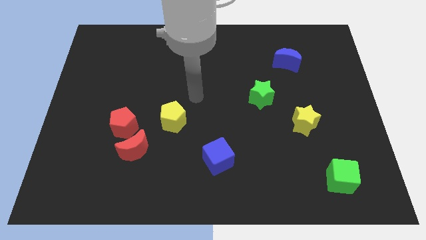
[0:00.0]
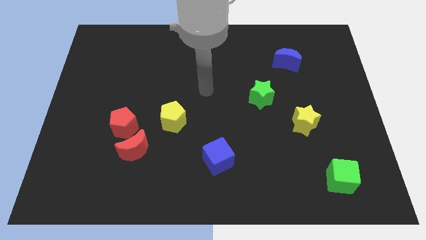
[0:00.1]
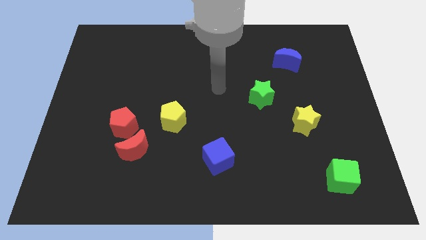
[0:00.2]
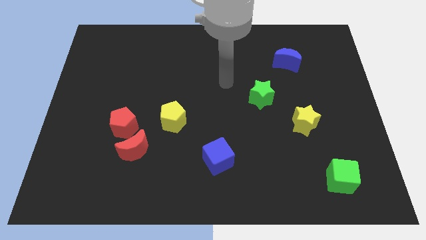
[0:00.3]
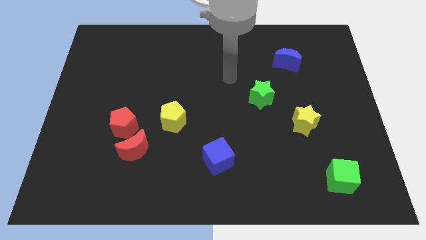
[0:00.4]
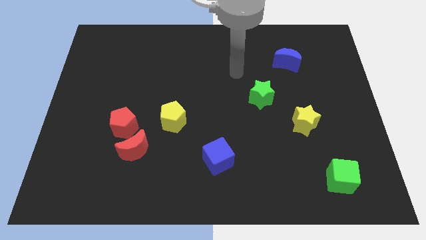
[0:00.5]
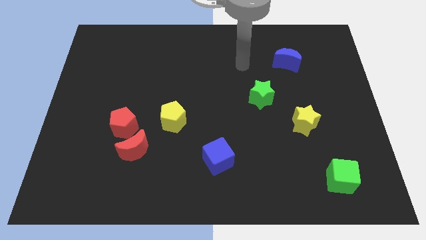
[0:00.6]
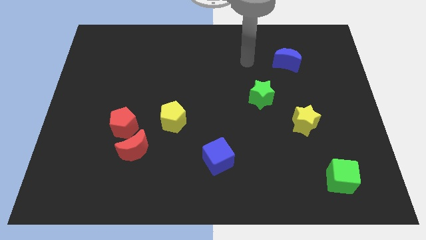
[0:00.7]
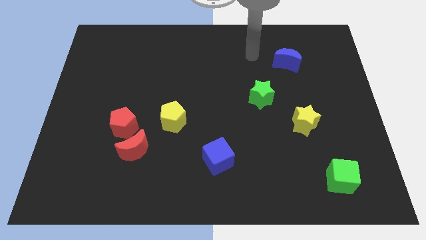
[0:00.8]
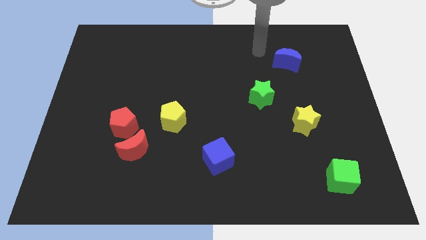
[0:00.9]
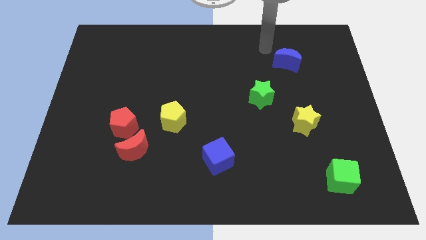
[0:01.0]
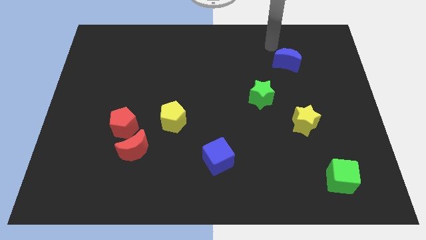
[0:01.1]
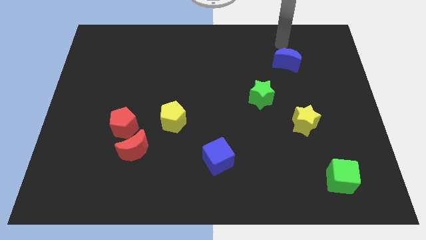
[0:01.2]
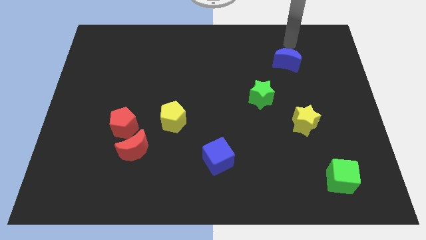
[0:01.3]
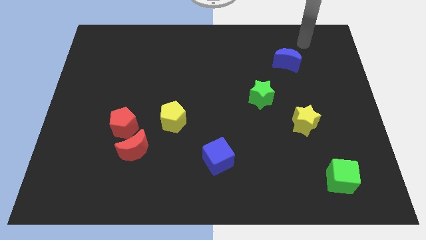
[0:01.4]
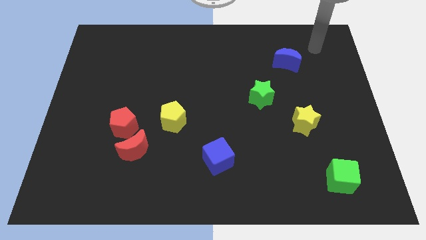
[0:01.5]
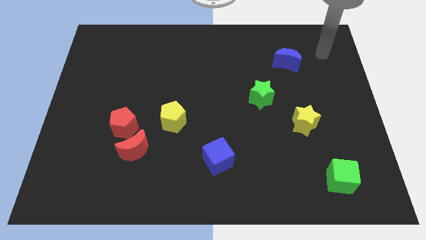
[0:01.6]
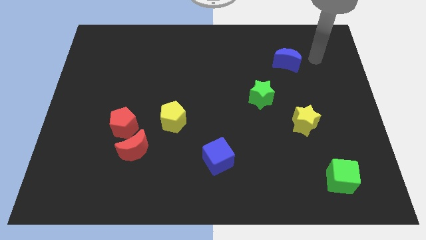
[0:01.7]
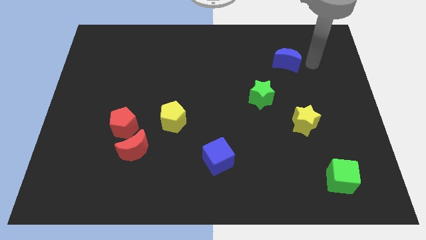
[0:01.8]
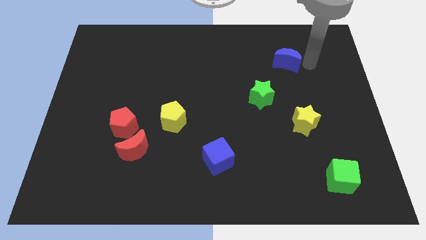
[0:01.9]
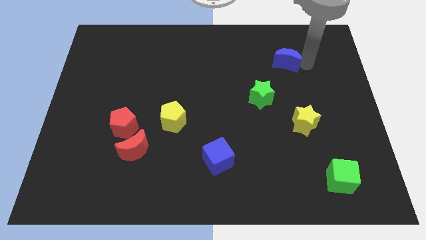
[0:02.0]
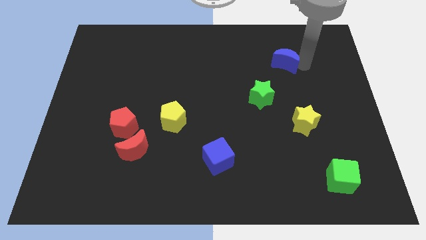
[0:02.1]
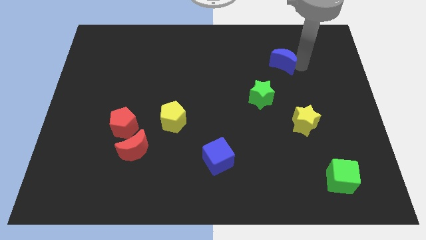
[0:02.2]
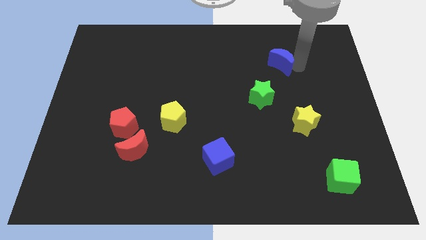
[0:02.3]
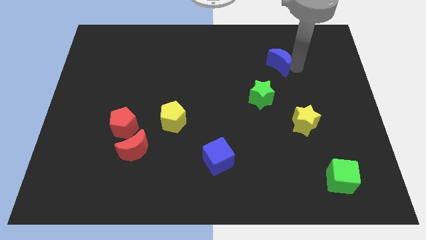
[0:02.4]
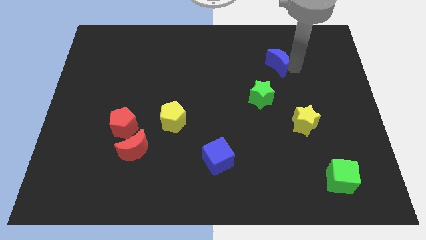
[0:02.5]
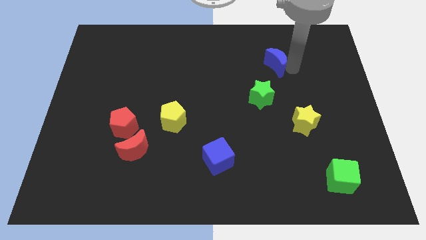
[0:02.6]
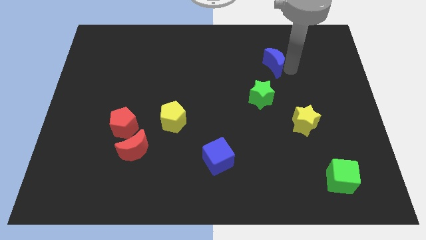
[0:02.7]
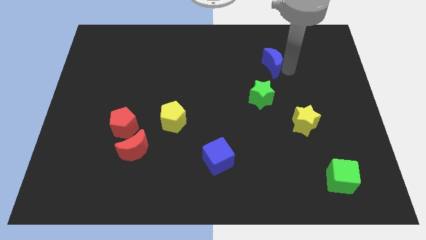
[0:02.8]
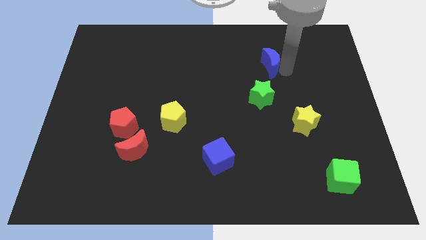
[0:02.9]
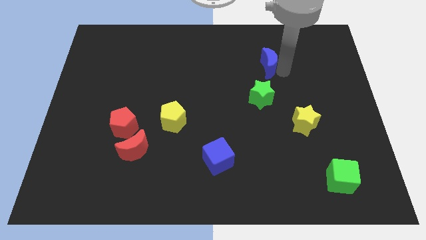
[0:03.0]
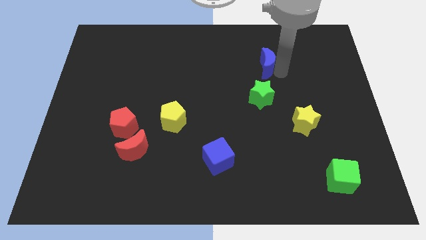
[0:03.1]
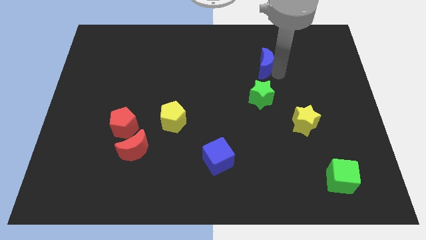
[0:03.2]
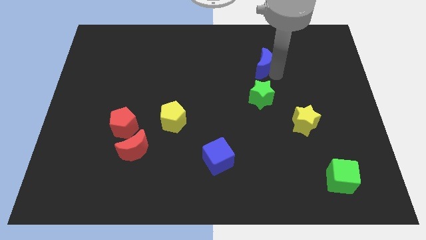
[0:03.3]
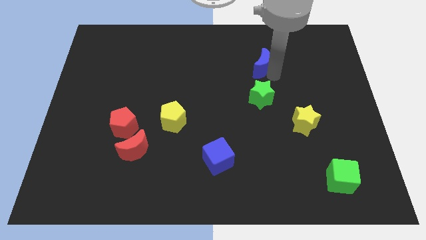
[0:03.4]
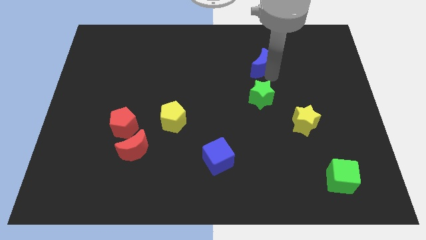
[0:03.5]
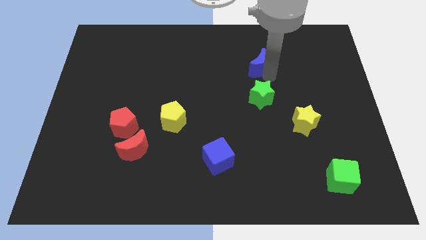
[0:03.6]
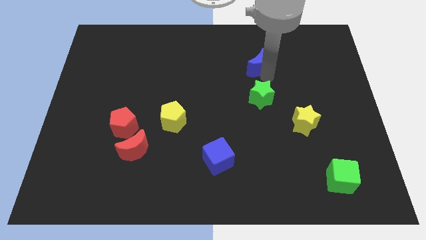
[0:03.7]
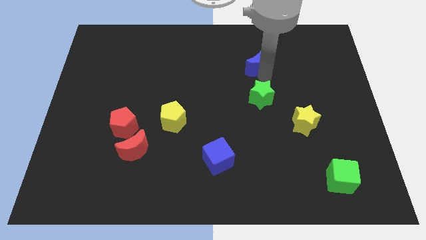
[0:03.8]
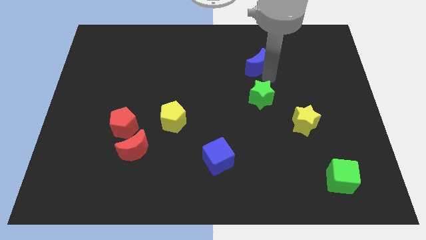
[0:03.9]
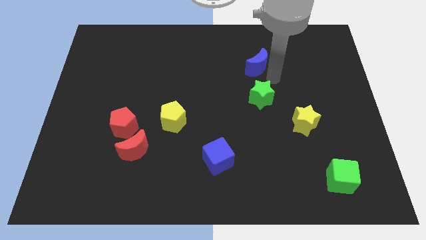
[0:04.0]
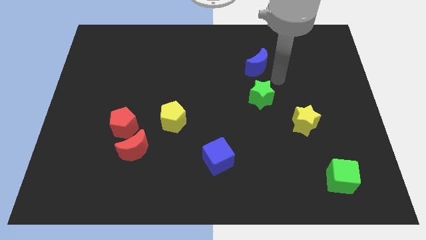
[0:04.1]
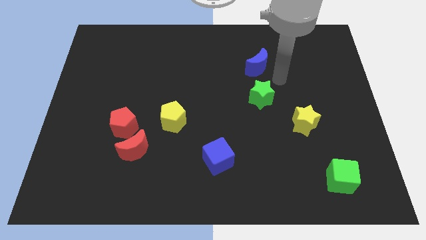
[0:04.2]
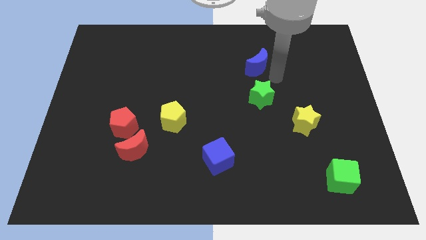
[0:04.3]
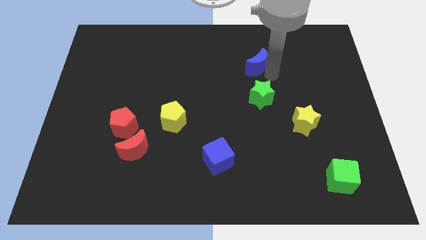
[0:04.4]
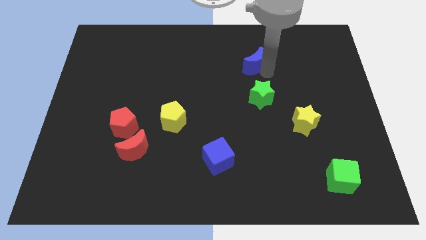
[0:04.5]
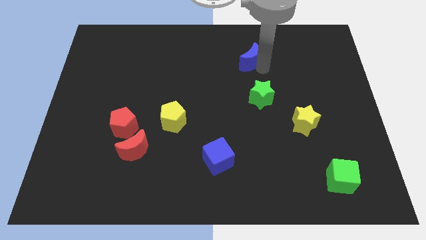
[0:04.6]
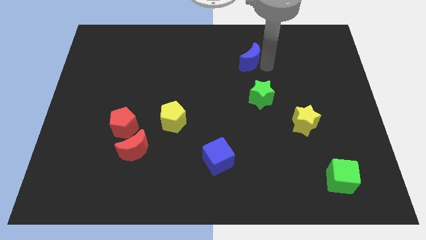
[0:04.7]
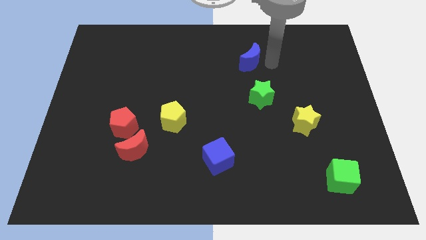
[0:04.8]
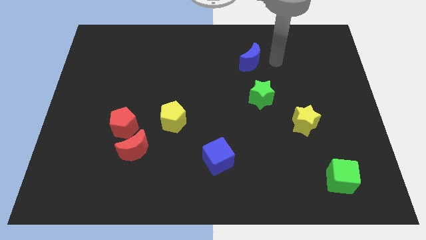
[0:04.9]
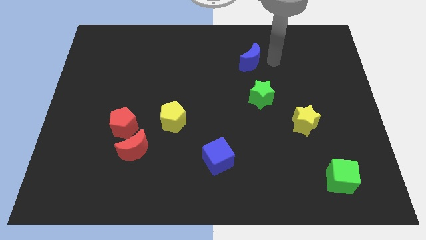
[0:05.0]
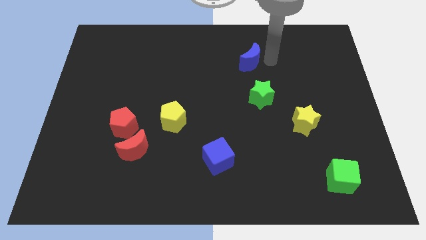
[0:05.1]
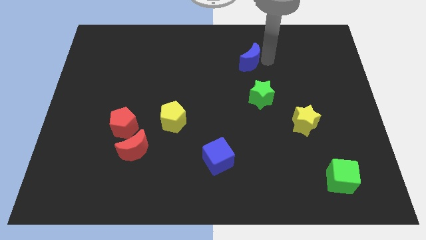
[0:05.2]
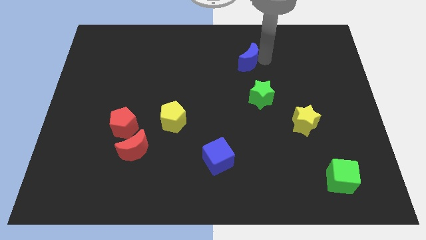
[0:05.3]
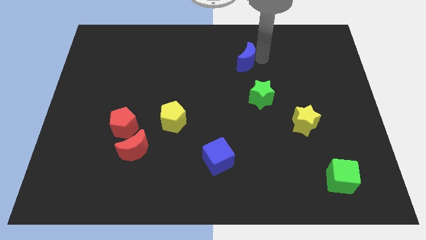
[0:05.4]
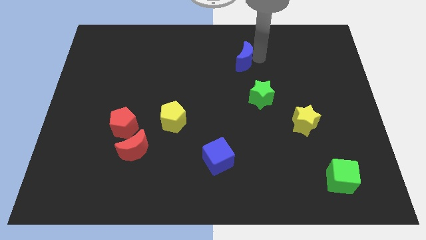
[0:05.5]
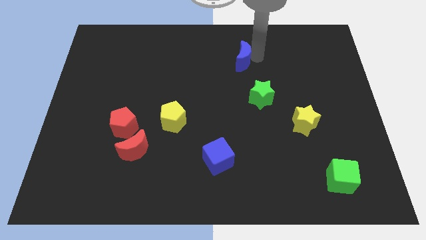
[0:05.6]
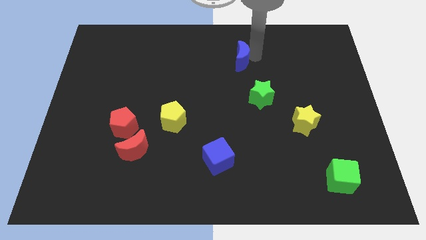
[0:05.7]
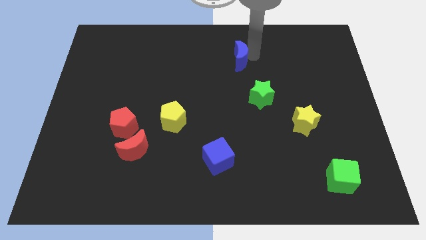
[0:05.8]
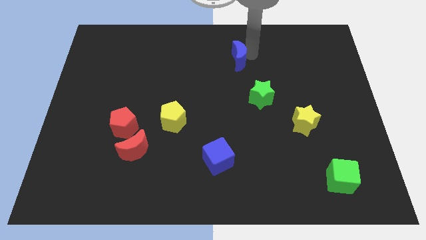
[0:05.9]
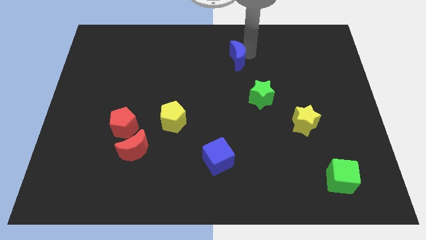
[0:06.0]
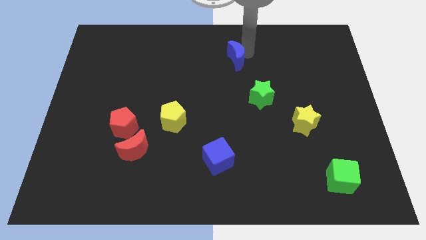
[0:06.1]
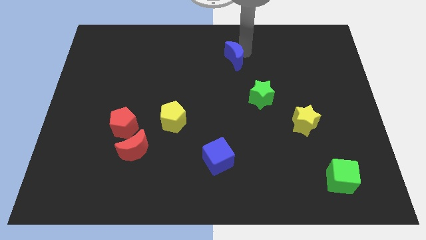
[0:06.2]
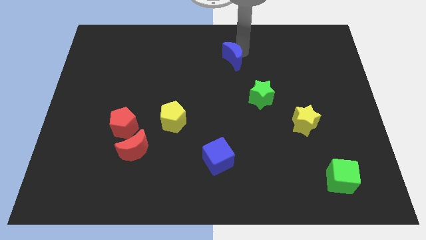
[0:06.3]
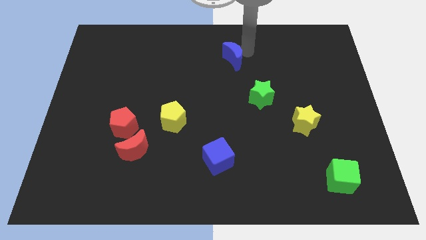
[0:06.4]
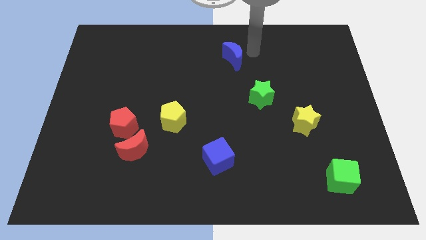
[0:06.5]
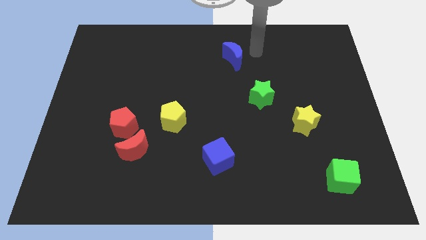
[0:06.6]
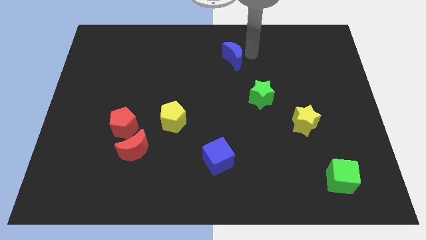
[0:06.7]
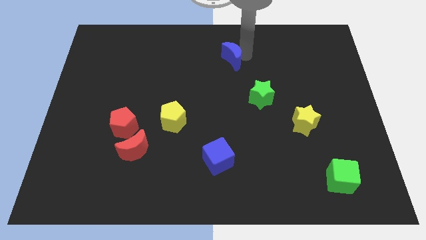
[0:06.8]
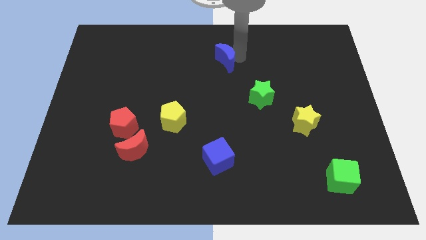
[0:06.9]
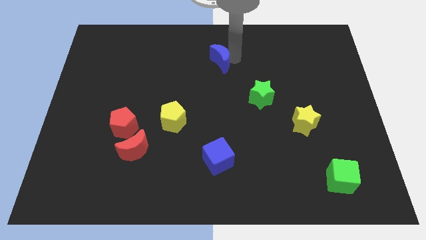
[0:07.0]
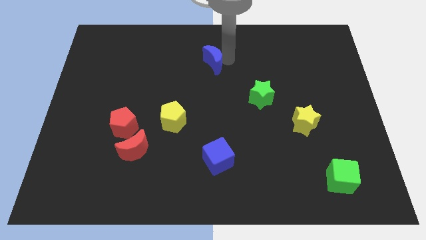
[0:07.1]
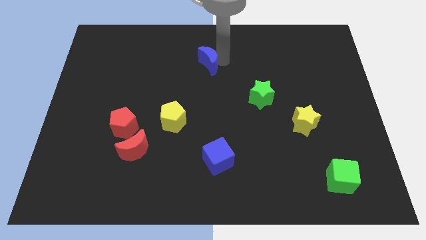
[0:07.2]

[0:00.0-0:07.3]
move the blue moon to the left

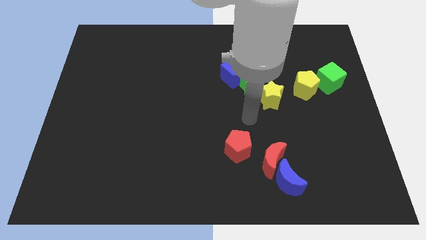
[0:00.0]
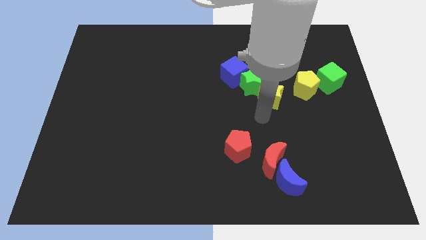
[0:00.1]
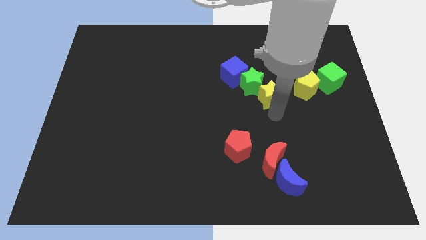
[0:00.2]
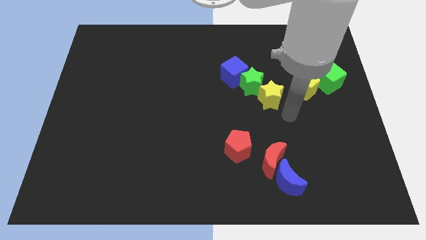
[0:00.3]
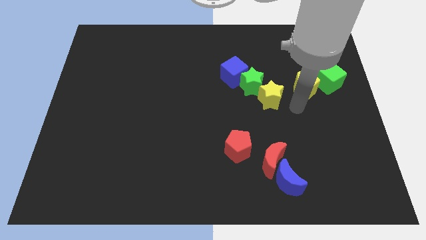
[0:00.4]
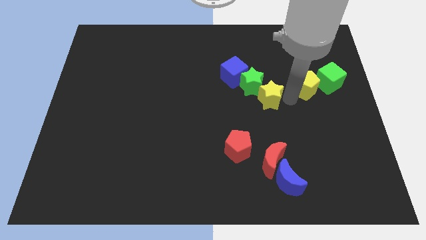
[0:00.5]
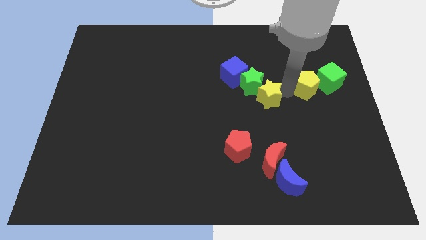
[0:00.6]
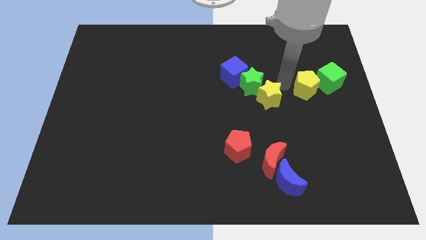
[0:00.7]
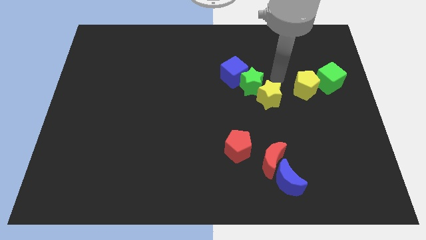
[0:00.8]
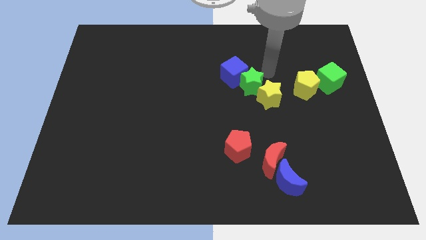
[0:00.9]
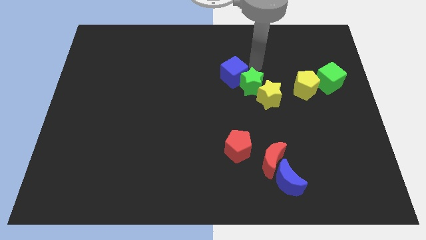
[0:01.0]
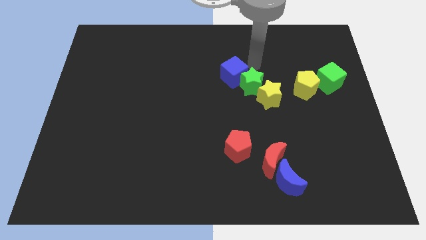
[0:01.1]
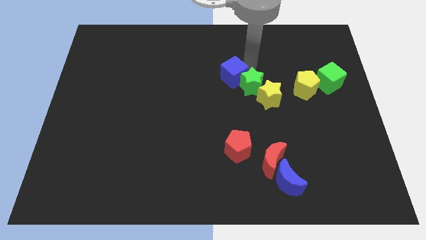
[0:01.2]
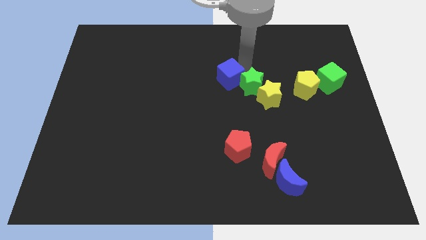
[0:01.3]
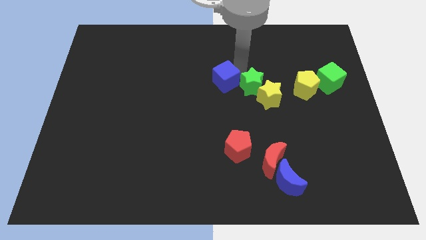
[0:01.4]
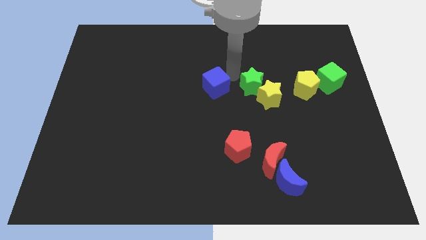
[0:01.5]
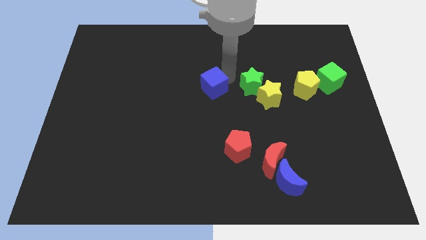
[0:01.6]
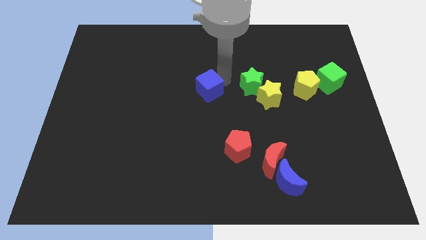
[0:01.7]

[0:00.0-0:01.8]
move the blue cube downwards and to the left diagonally a little
